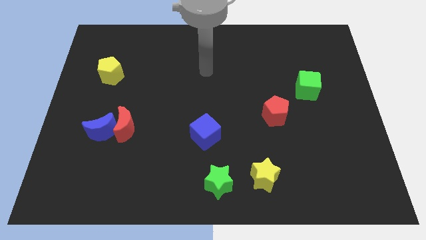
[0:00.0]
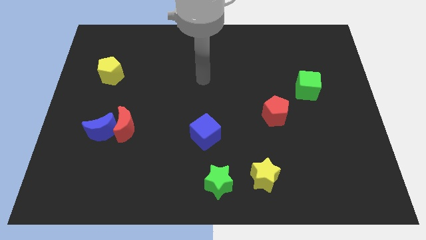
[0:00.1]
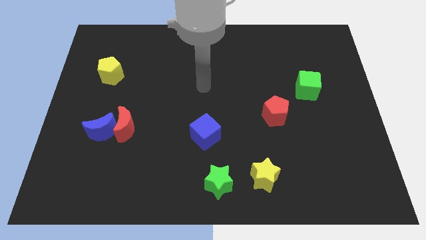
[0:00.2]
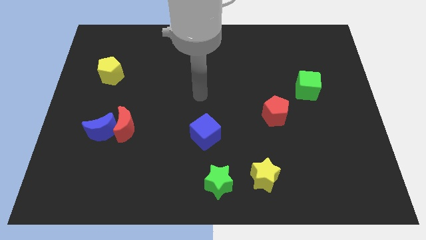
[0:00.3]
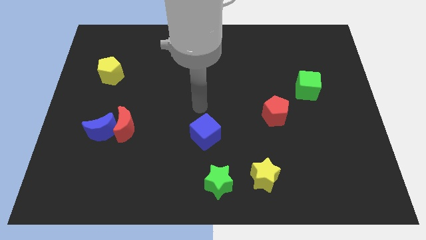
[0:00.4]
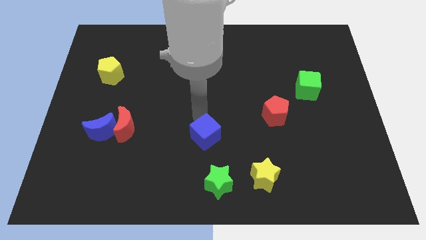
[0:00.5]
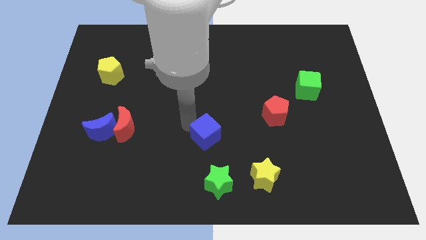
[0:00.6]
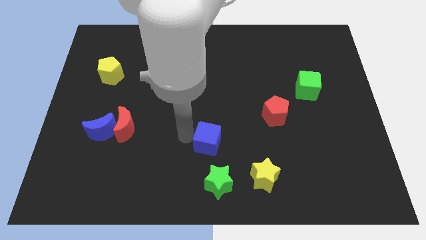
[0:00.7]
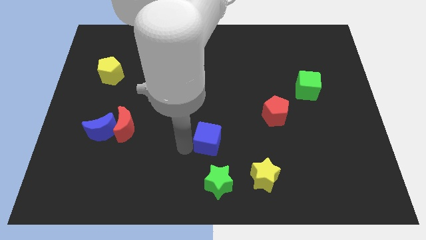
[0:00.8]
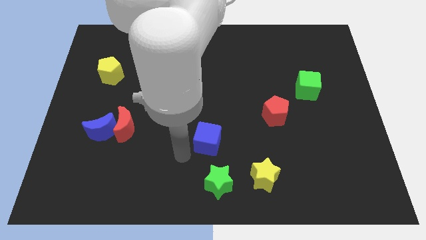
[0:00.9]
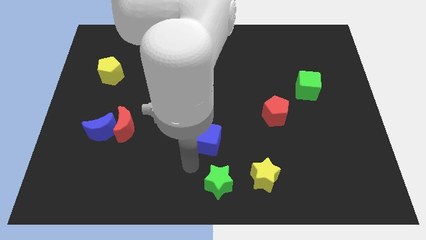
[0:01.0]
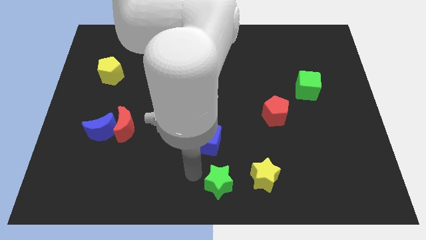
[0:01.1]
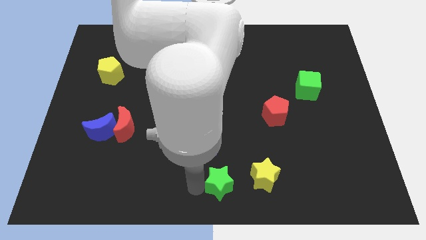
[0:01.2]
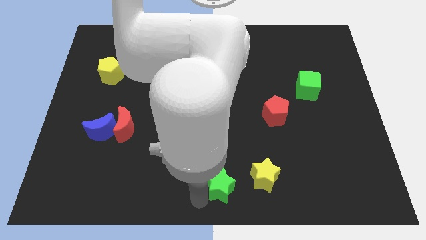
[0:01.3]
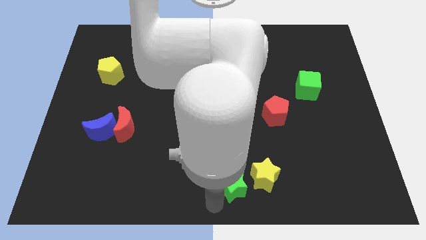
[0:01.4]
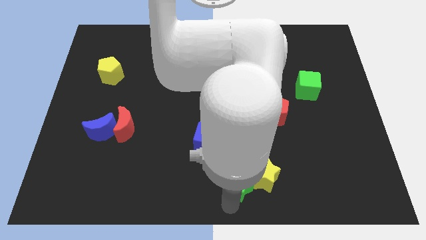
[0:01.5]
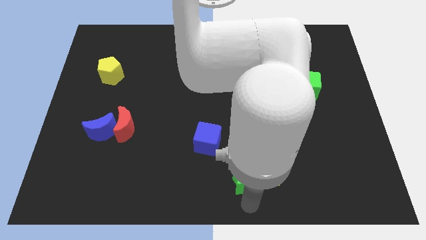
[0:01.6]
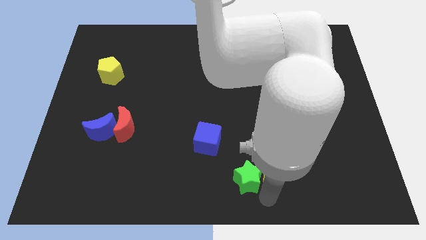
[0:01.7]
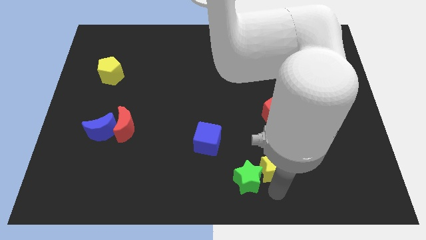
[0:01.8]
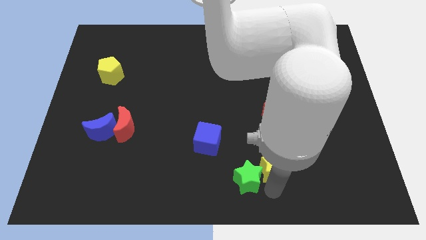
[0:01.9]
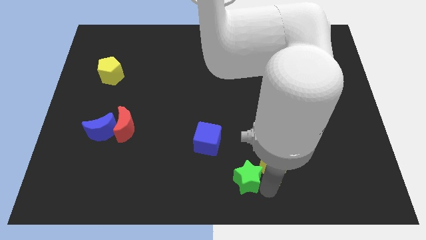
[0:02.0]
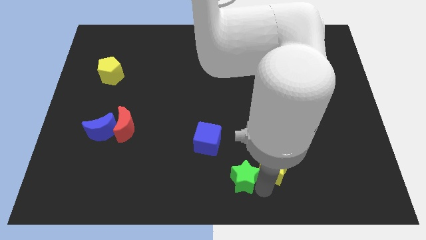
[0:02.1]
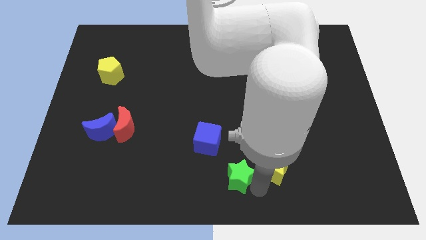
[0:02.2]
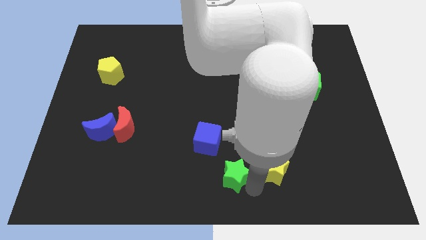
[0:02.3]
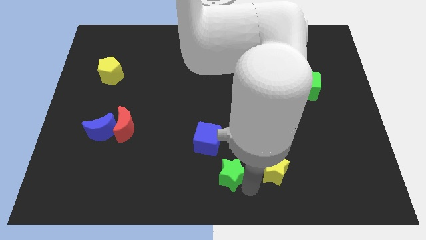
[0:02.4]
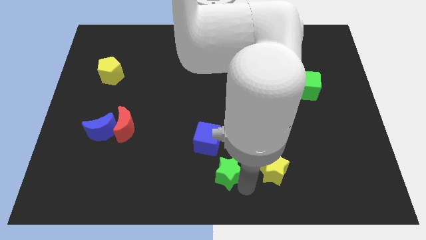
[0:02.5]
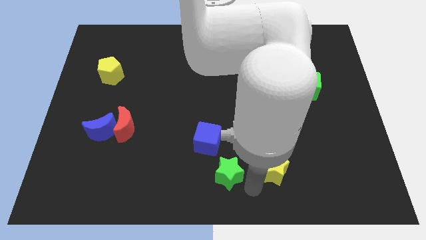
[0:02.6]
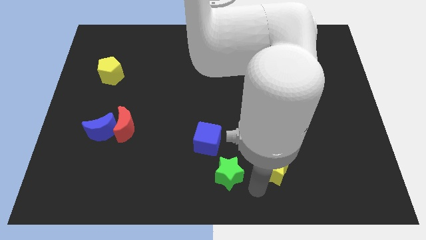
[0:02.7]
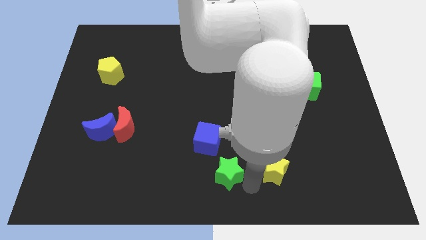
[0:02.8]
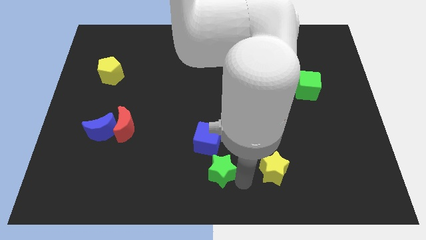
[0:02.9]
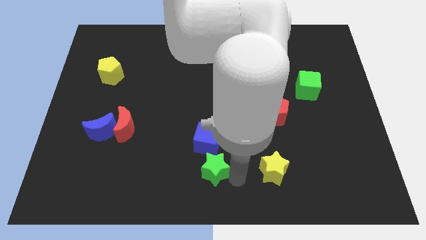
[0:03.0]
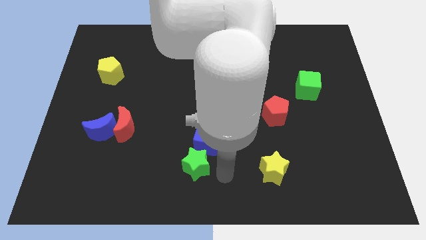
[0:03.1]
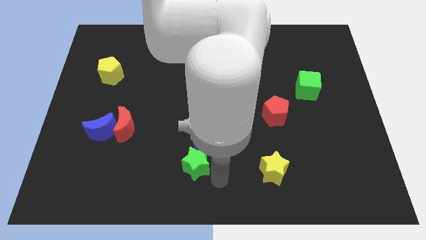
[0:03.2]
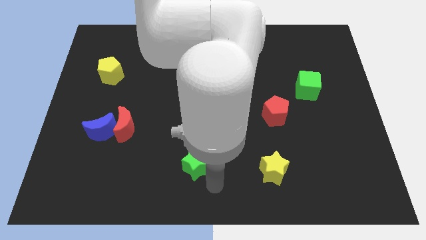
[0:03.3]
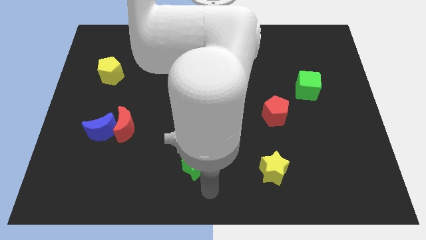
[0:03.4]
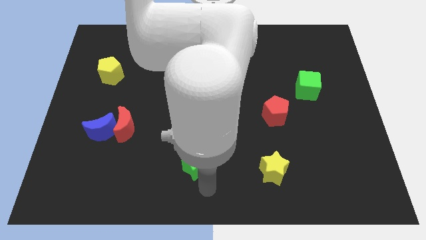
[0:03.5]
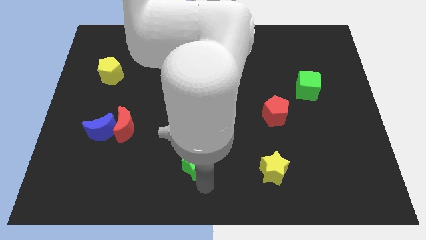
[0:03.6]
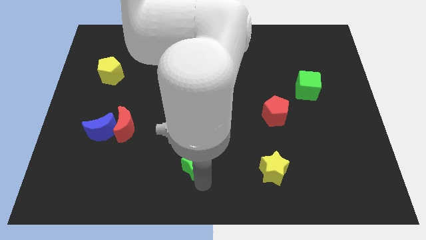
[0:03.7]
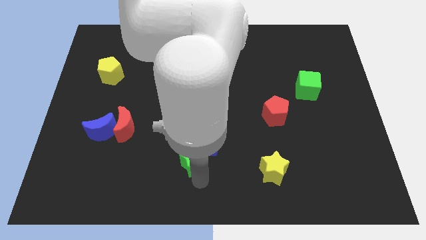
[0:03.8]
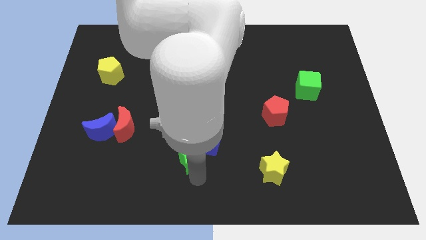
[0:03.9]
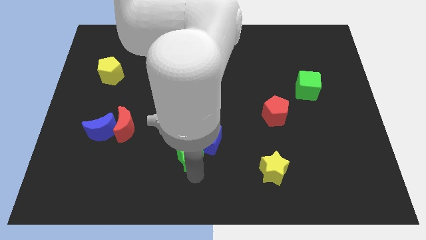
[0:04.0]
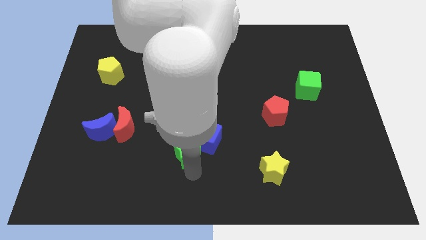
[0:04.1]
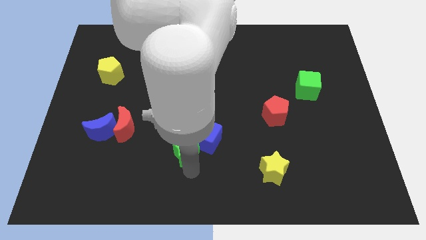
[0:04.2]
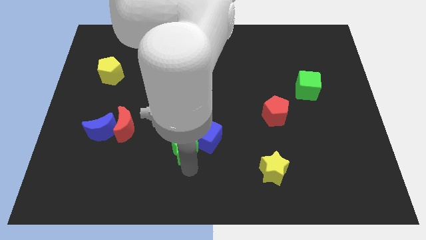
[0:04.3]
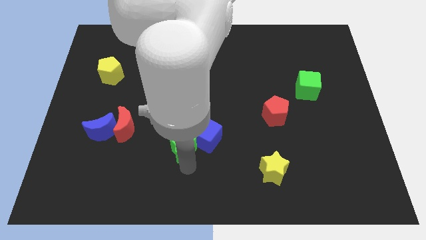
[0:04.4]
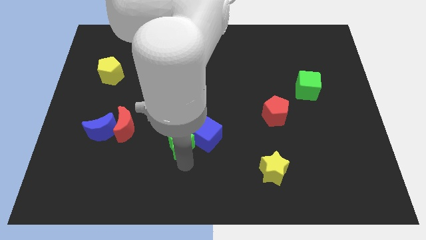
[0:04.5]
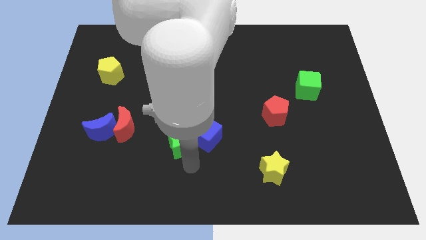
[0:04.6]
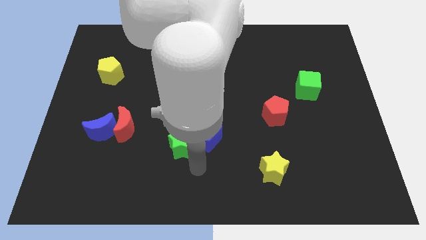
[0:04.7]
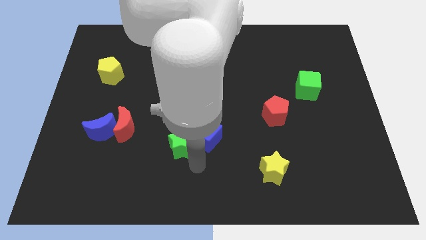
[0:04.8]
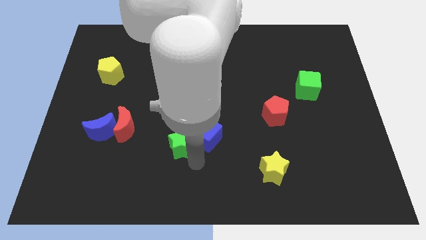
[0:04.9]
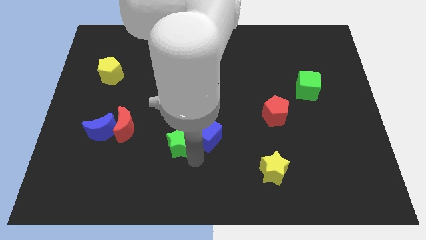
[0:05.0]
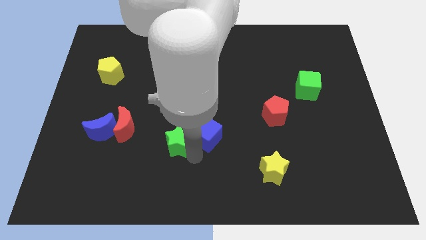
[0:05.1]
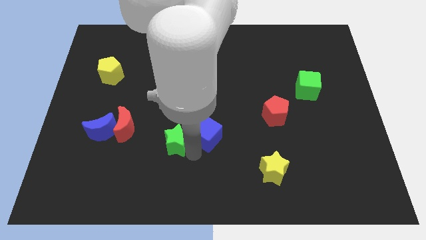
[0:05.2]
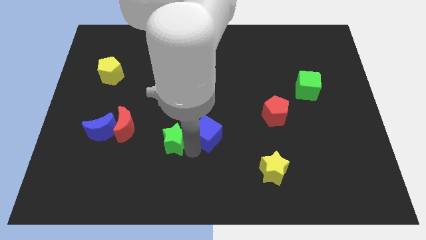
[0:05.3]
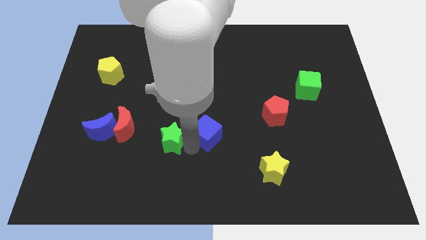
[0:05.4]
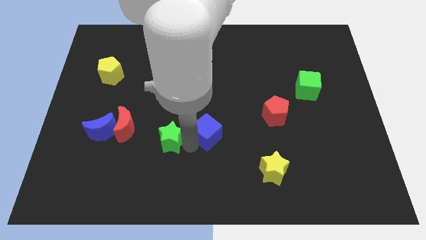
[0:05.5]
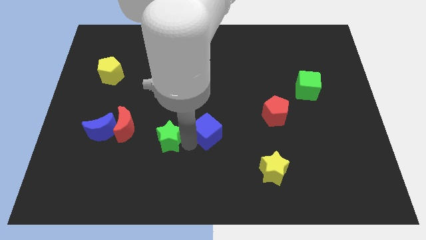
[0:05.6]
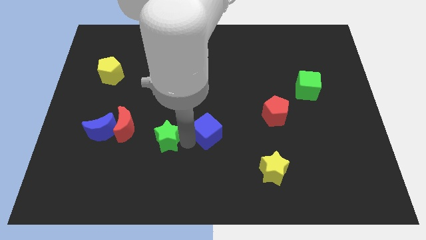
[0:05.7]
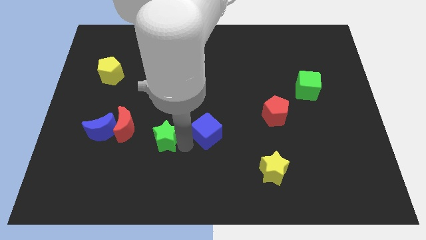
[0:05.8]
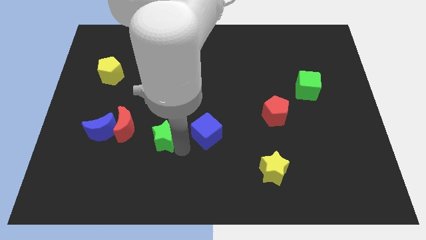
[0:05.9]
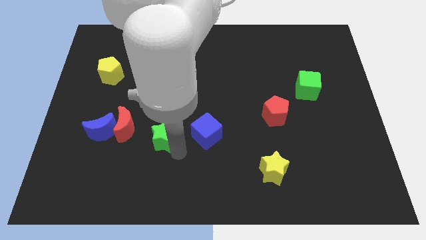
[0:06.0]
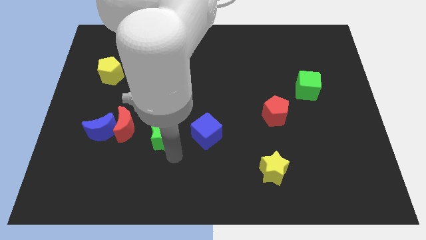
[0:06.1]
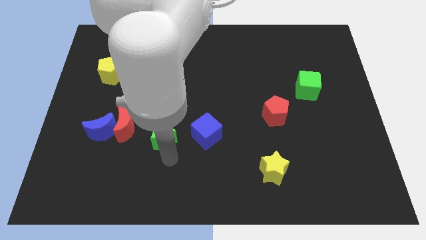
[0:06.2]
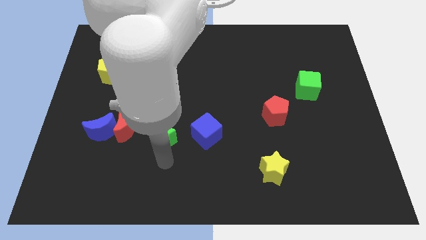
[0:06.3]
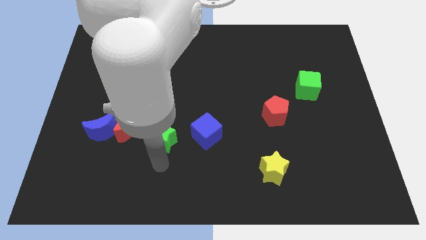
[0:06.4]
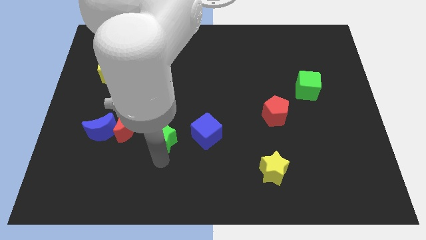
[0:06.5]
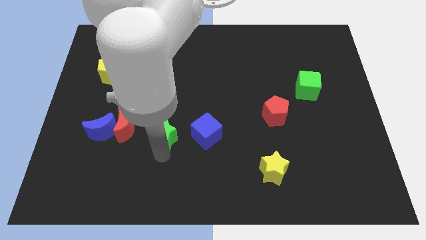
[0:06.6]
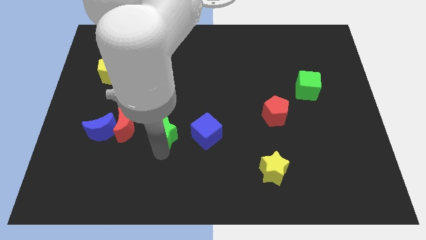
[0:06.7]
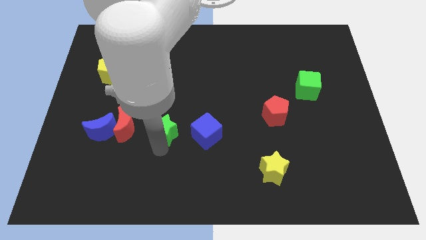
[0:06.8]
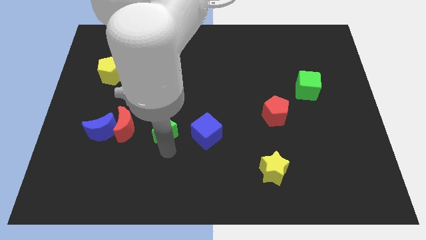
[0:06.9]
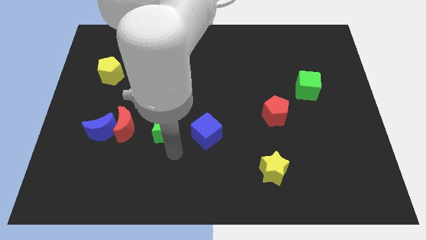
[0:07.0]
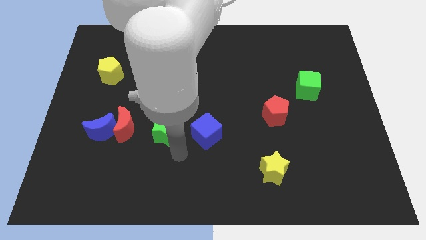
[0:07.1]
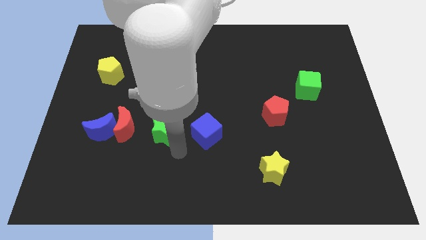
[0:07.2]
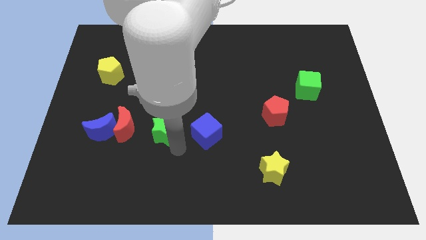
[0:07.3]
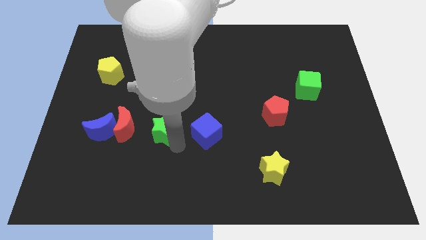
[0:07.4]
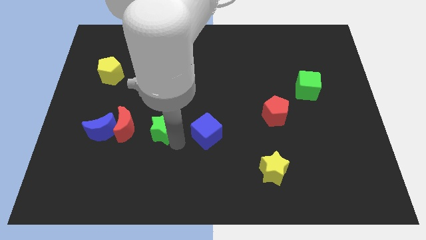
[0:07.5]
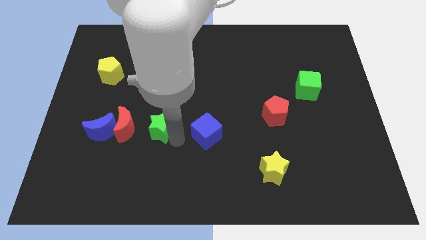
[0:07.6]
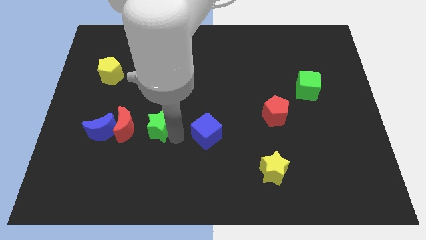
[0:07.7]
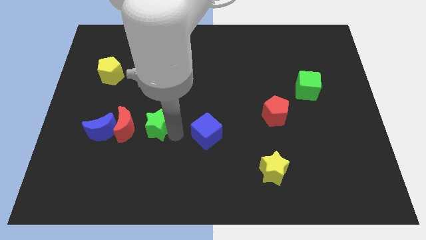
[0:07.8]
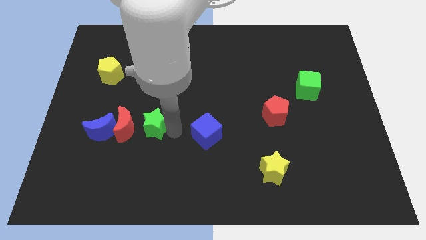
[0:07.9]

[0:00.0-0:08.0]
slide the green star to the top right of the red moon
